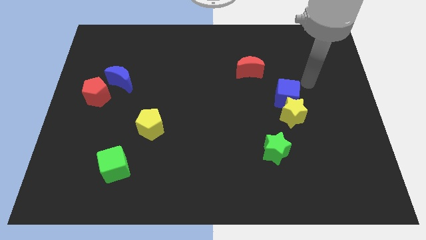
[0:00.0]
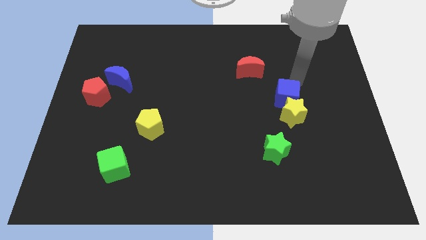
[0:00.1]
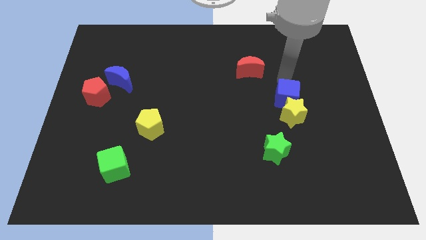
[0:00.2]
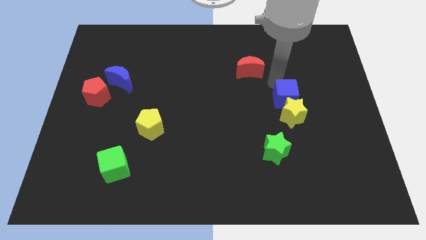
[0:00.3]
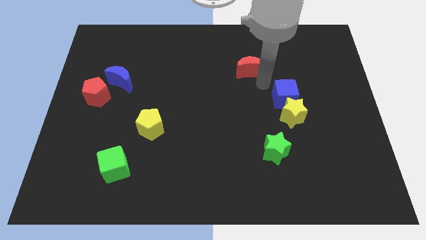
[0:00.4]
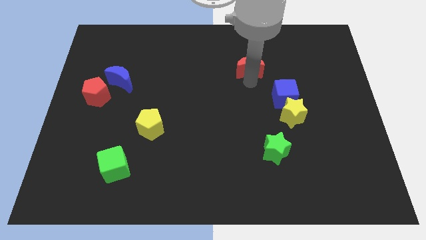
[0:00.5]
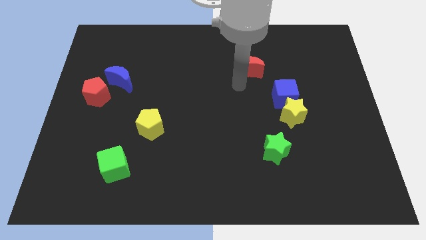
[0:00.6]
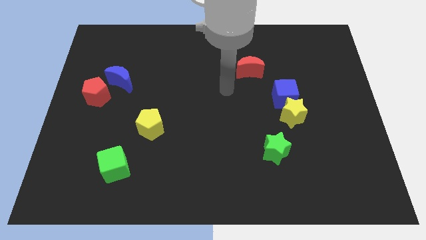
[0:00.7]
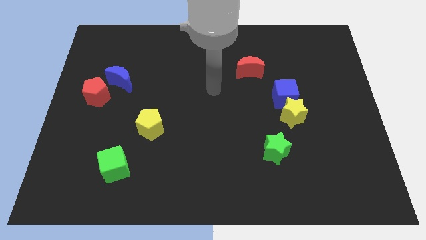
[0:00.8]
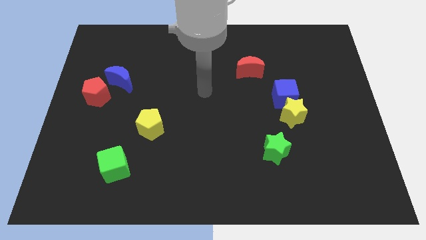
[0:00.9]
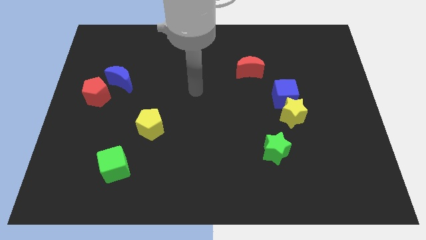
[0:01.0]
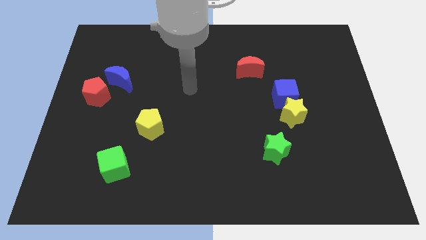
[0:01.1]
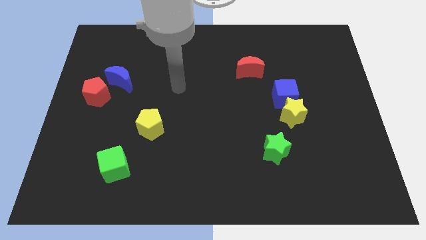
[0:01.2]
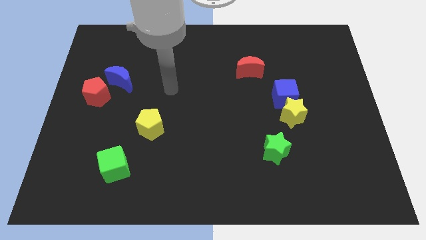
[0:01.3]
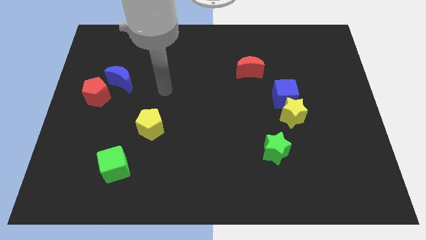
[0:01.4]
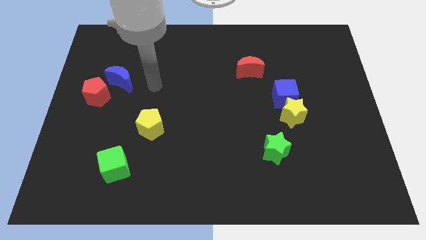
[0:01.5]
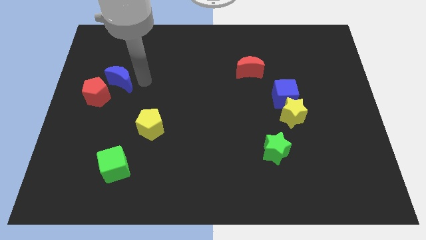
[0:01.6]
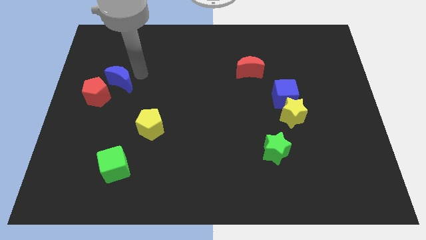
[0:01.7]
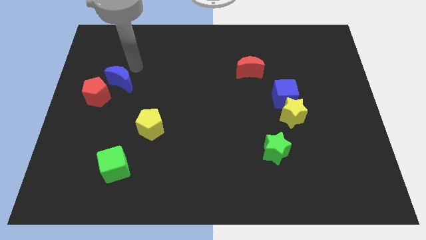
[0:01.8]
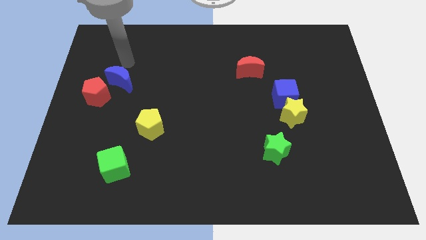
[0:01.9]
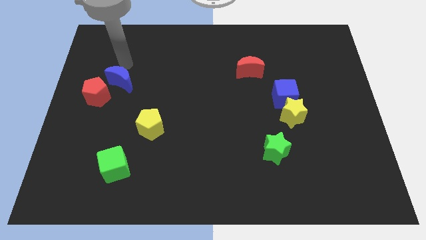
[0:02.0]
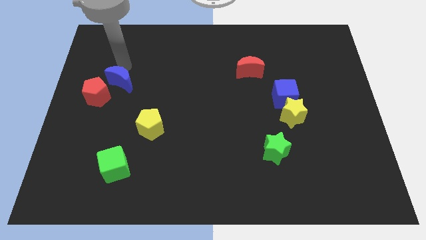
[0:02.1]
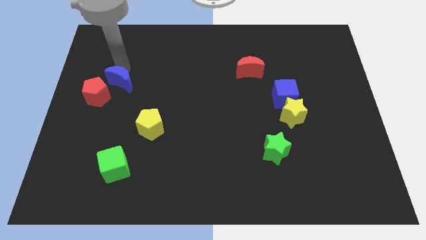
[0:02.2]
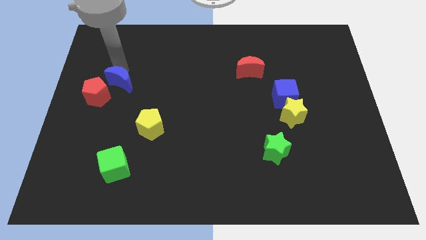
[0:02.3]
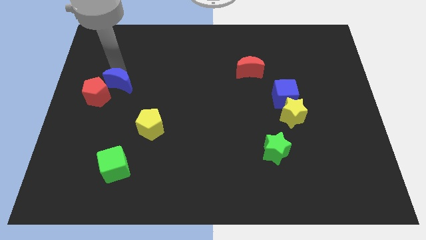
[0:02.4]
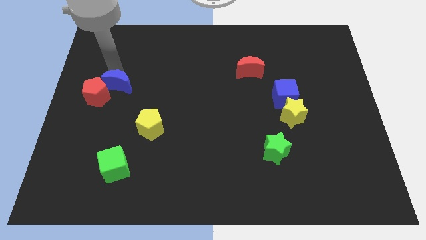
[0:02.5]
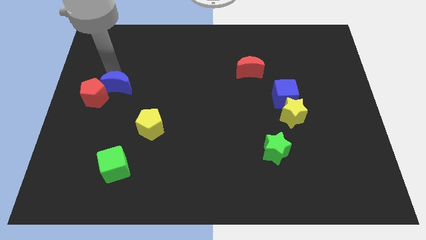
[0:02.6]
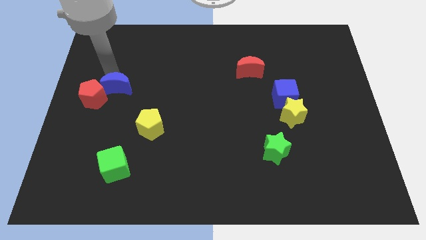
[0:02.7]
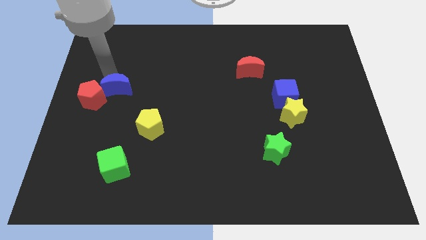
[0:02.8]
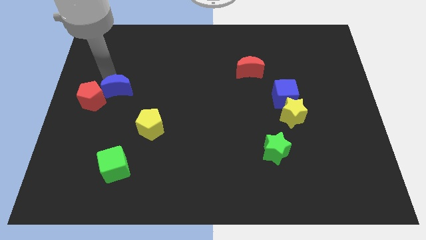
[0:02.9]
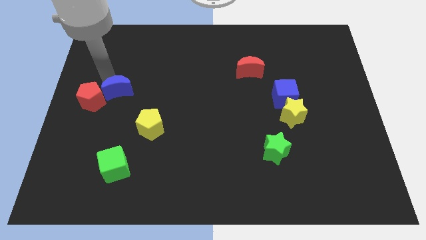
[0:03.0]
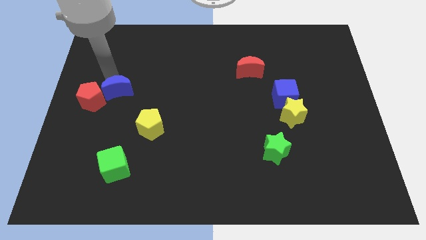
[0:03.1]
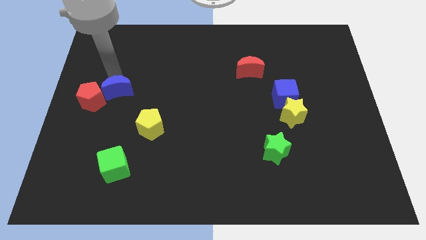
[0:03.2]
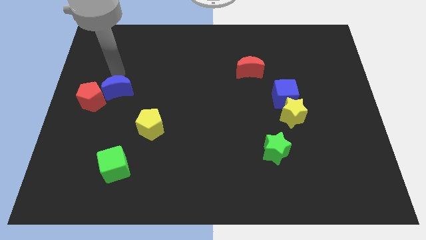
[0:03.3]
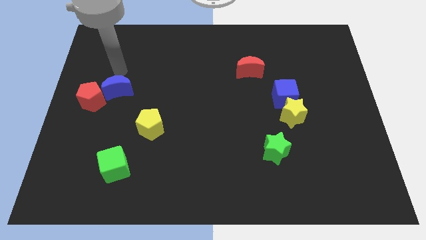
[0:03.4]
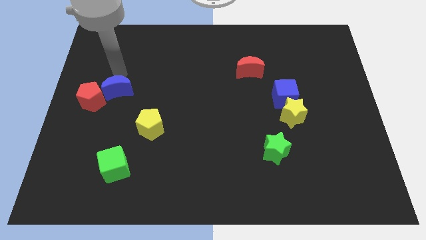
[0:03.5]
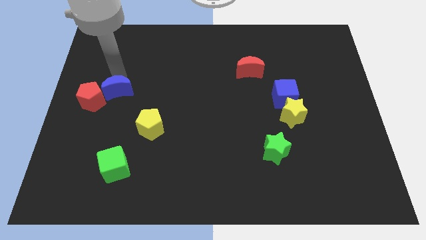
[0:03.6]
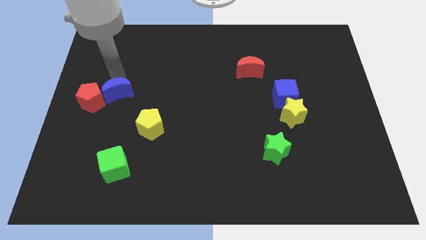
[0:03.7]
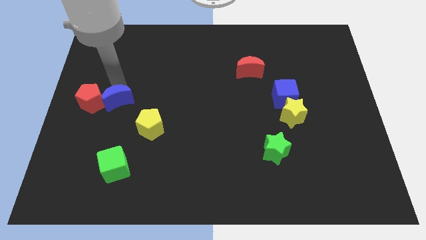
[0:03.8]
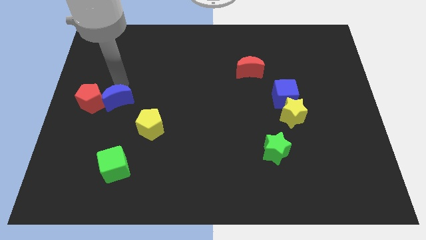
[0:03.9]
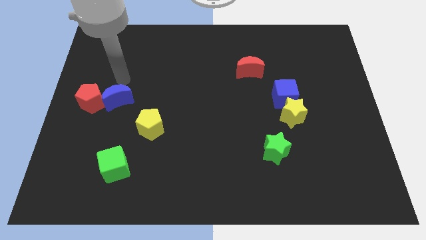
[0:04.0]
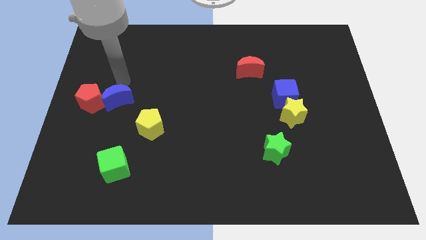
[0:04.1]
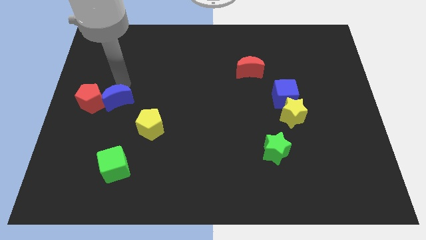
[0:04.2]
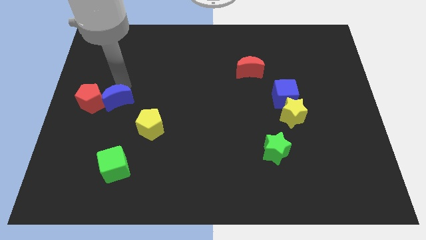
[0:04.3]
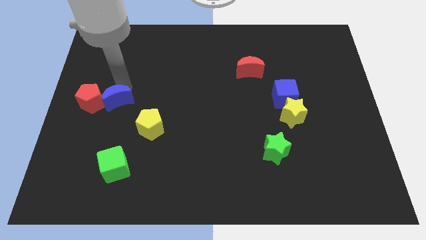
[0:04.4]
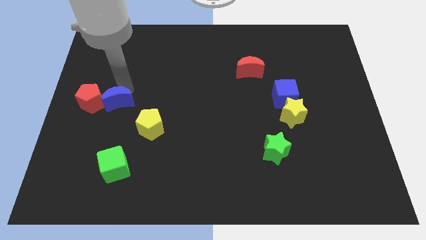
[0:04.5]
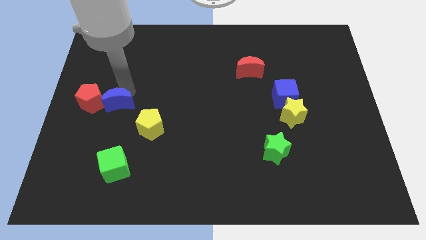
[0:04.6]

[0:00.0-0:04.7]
slide the blue moon downwards slightly

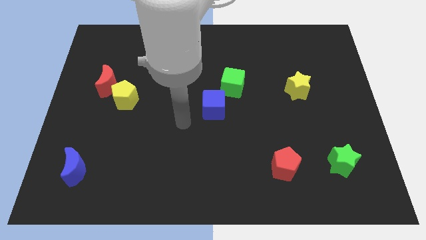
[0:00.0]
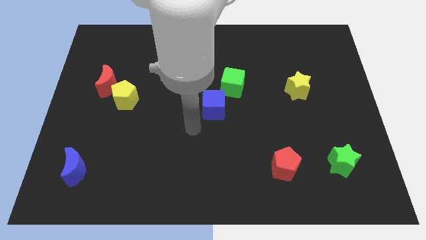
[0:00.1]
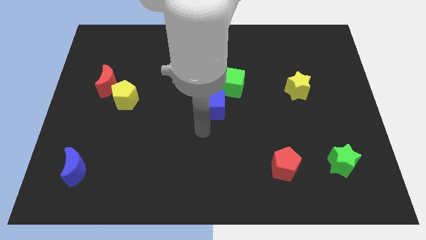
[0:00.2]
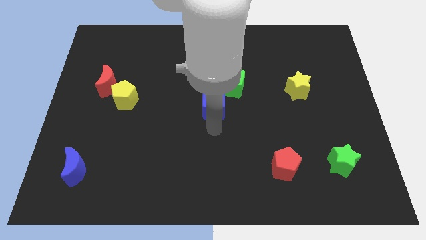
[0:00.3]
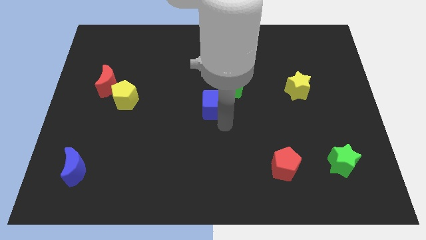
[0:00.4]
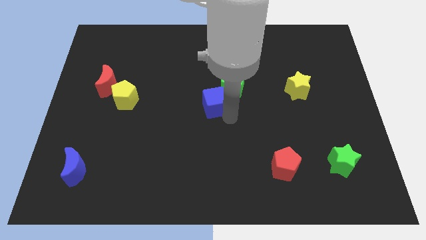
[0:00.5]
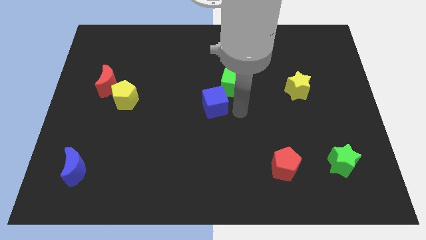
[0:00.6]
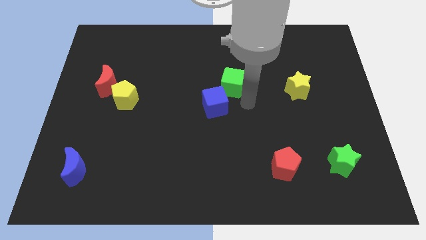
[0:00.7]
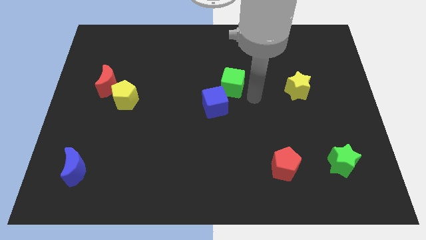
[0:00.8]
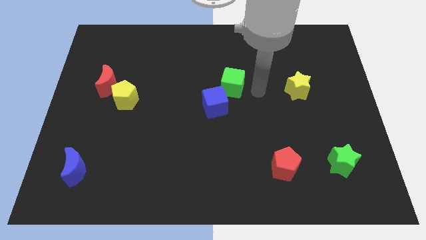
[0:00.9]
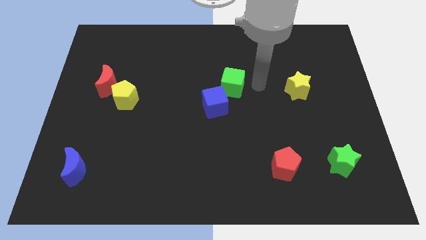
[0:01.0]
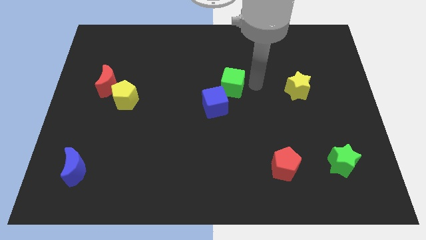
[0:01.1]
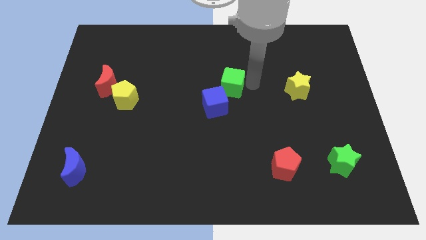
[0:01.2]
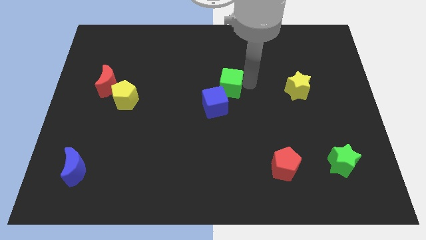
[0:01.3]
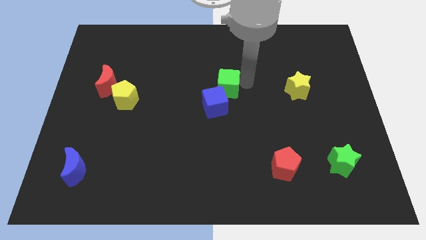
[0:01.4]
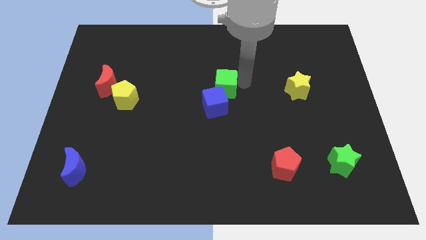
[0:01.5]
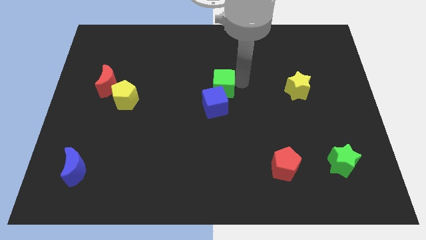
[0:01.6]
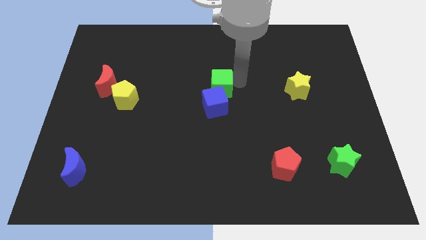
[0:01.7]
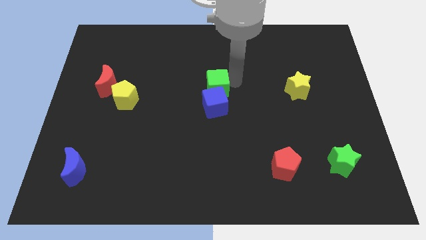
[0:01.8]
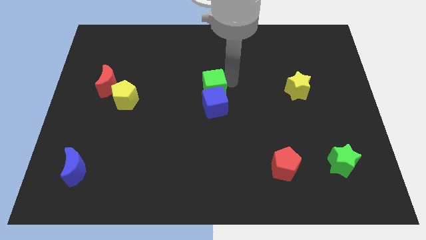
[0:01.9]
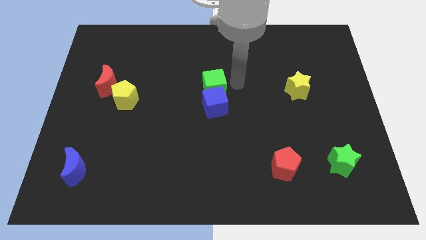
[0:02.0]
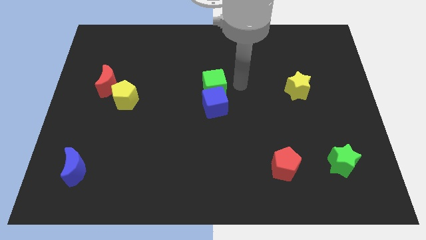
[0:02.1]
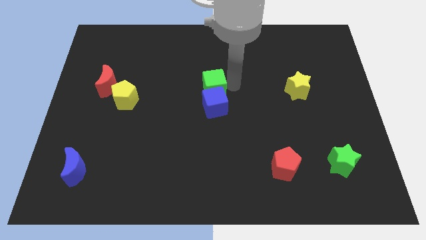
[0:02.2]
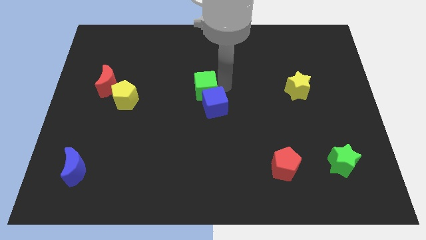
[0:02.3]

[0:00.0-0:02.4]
slightly move the green cube to the left

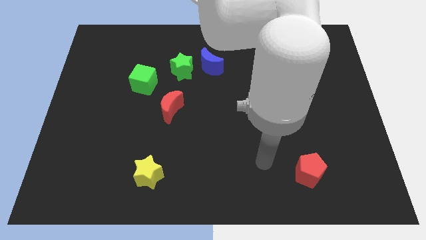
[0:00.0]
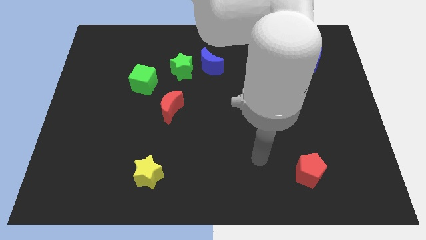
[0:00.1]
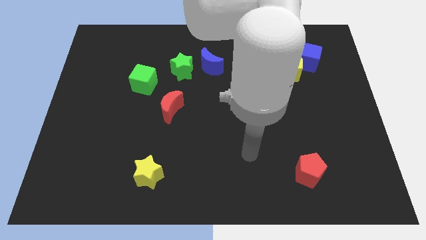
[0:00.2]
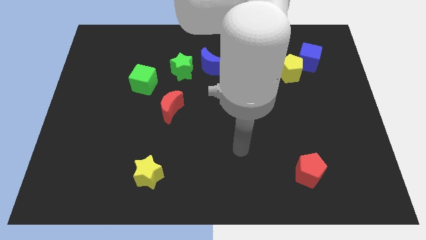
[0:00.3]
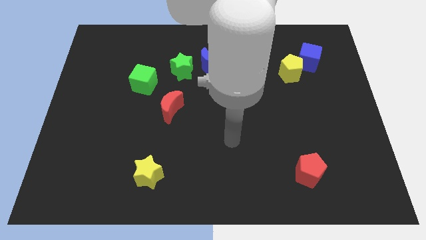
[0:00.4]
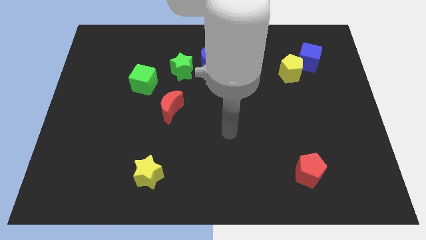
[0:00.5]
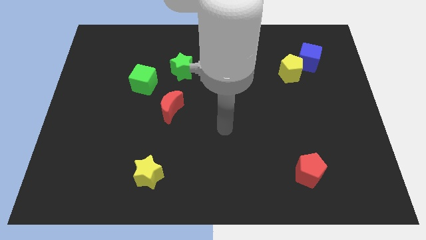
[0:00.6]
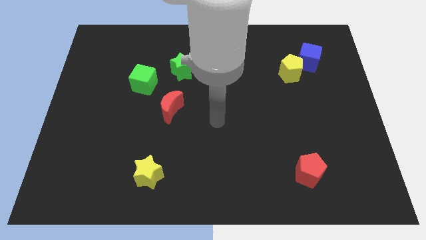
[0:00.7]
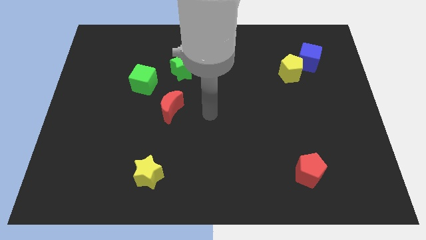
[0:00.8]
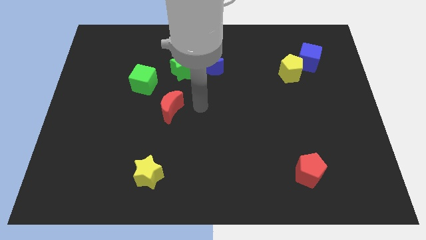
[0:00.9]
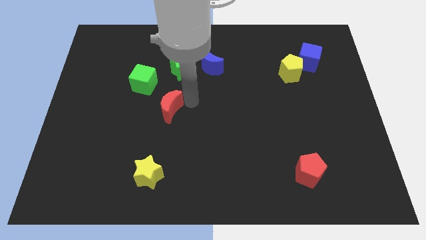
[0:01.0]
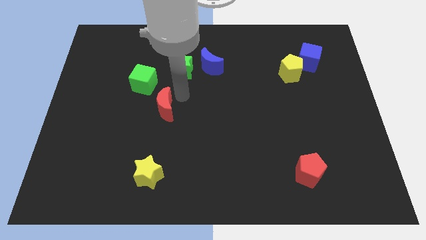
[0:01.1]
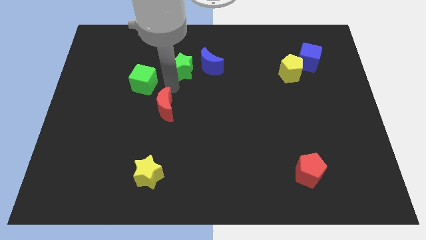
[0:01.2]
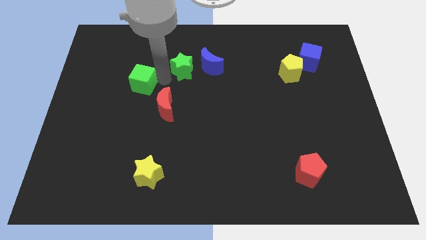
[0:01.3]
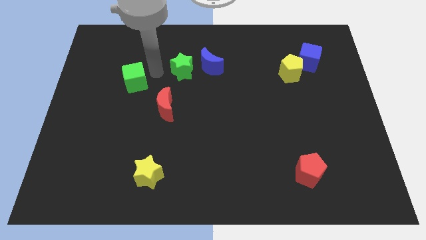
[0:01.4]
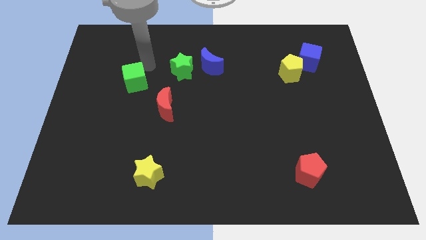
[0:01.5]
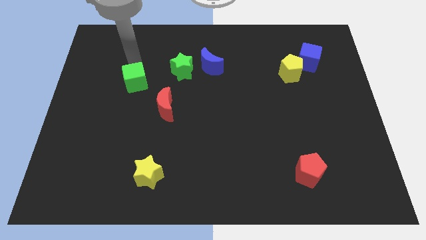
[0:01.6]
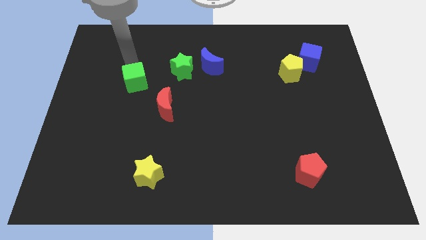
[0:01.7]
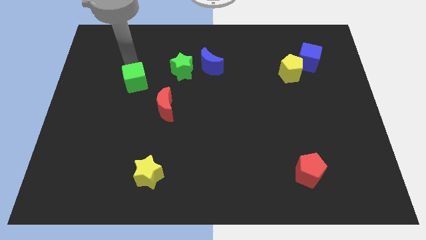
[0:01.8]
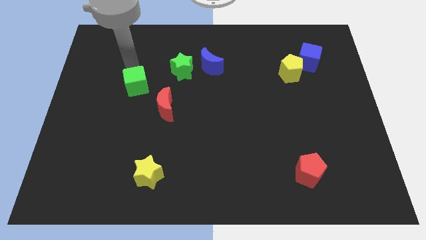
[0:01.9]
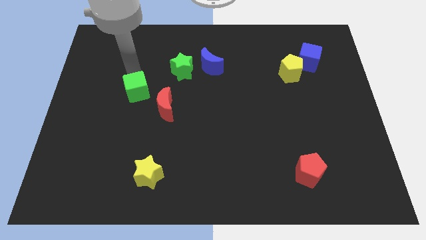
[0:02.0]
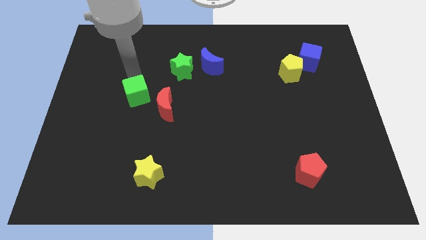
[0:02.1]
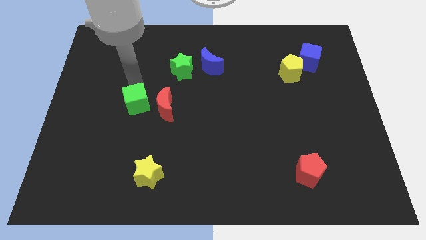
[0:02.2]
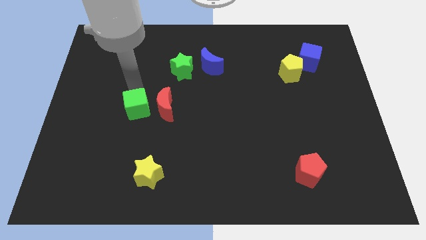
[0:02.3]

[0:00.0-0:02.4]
push the green cube somewhat down
